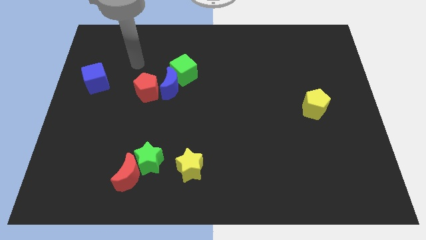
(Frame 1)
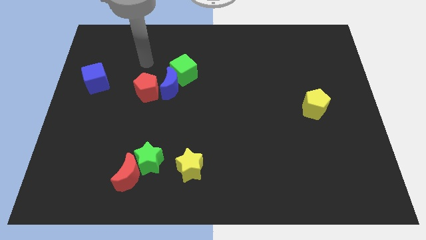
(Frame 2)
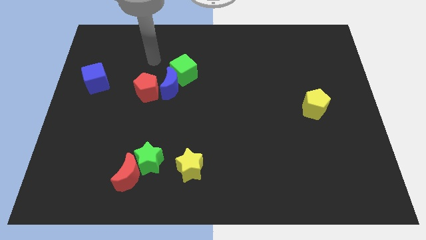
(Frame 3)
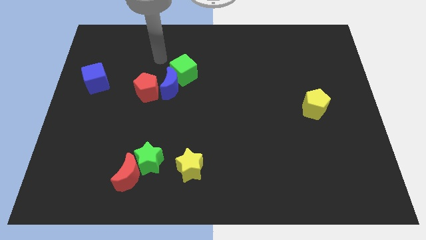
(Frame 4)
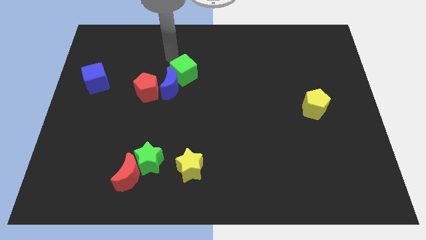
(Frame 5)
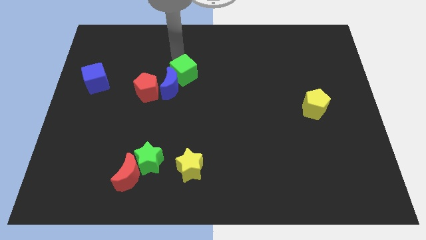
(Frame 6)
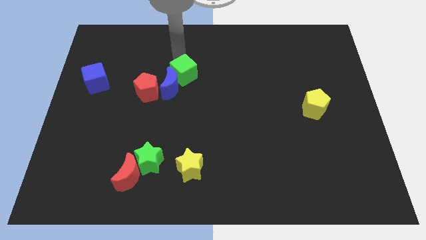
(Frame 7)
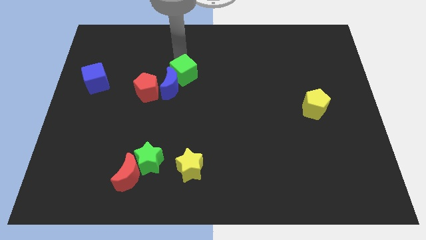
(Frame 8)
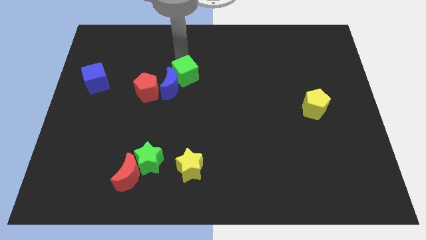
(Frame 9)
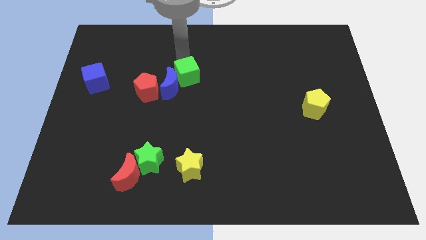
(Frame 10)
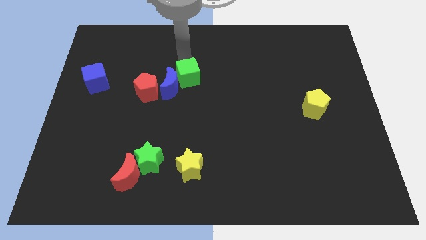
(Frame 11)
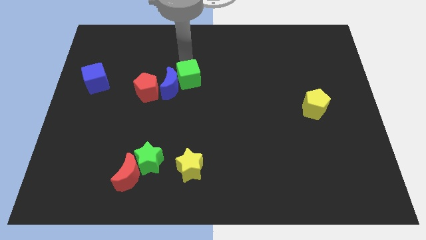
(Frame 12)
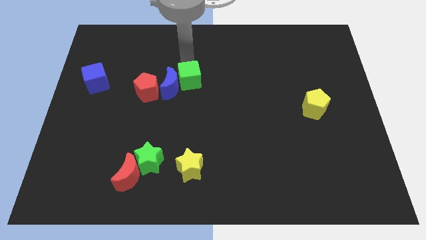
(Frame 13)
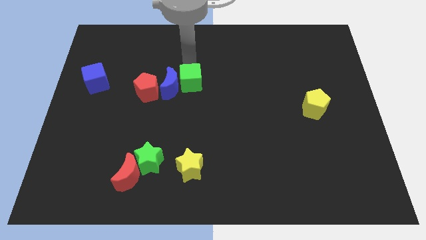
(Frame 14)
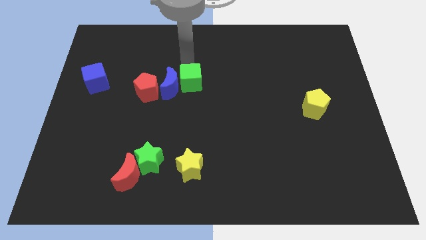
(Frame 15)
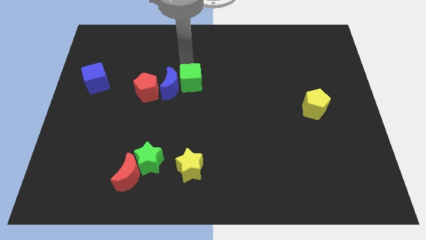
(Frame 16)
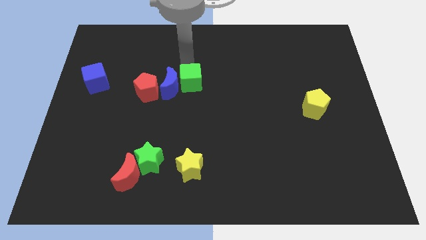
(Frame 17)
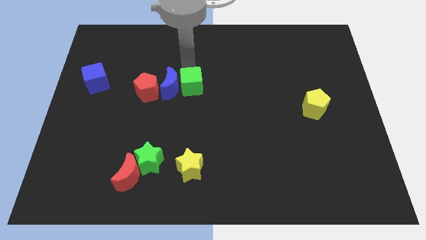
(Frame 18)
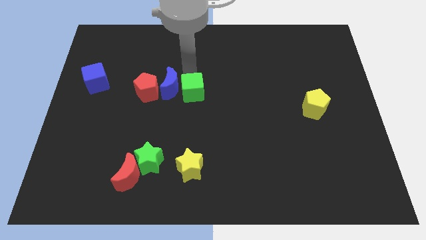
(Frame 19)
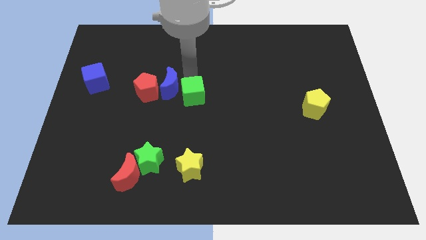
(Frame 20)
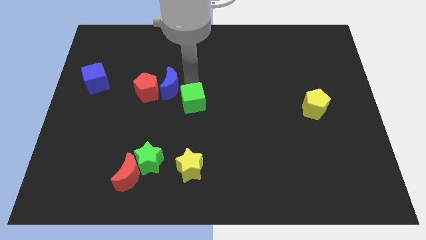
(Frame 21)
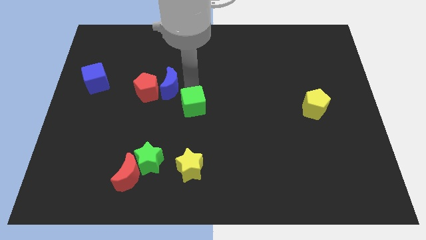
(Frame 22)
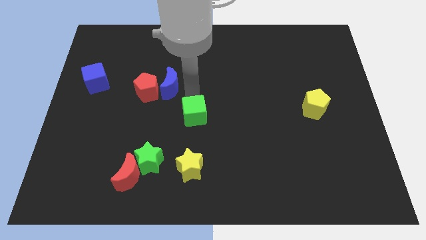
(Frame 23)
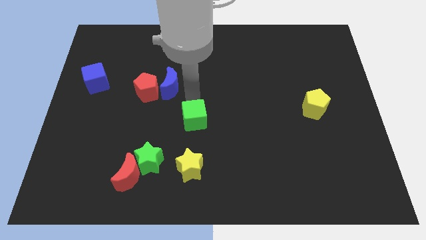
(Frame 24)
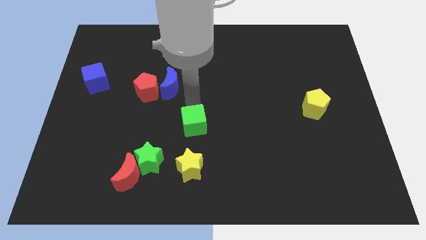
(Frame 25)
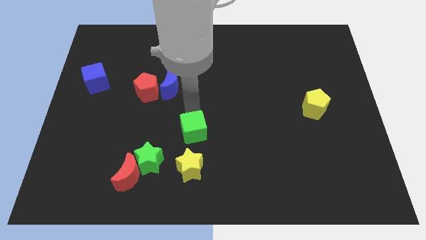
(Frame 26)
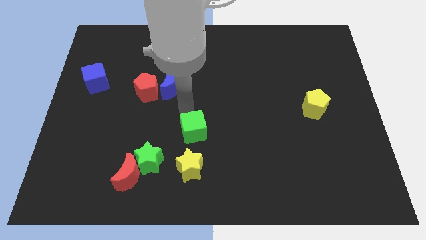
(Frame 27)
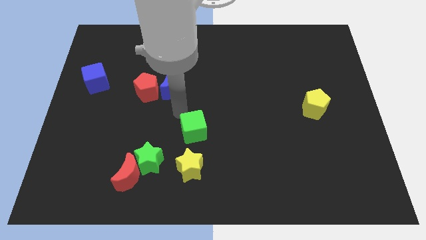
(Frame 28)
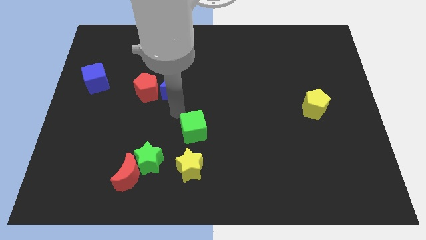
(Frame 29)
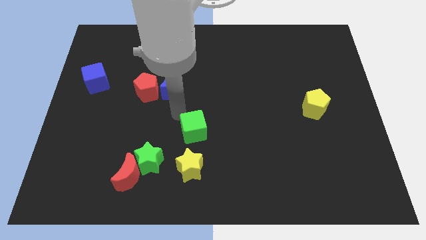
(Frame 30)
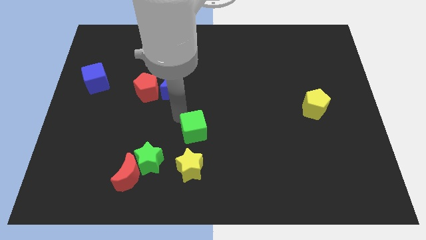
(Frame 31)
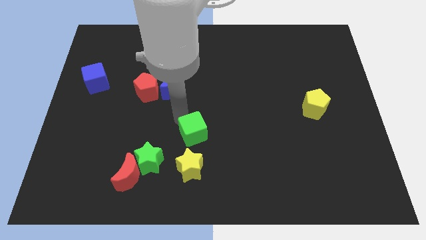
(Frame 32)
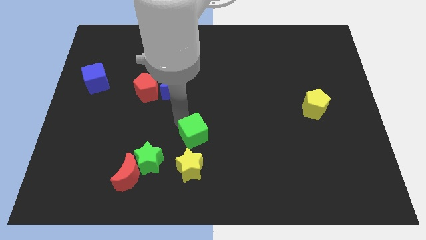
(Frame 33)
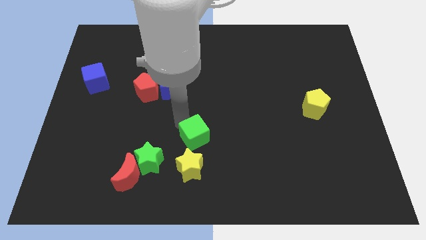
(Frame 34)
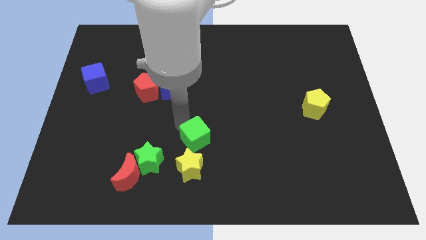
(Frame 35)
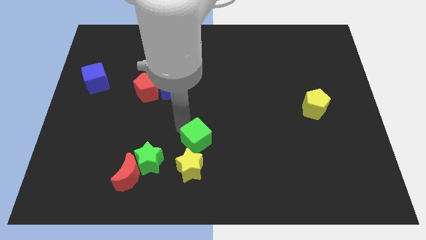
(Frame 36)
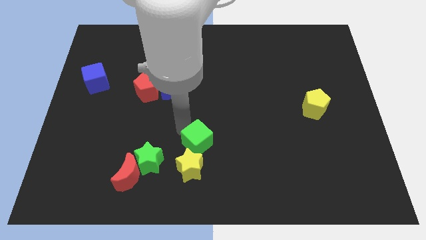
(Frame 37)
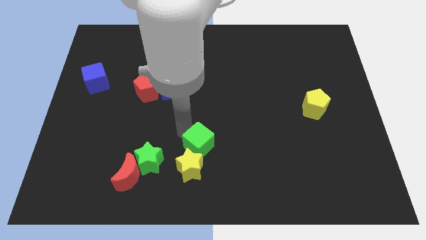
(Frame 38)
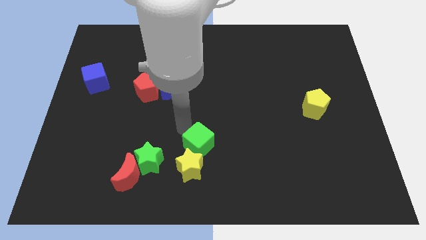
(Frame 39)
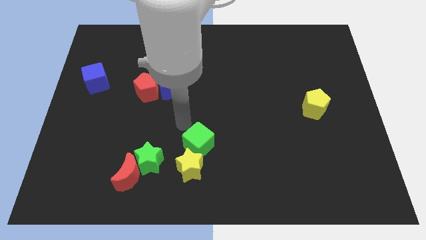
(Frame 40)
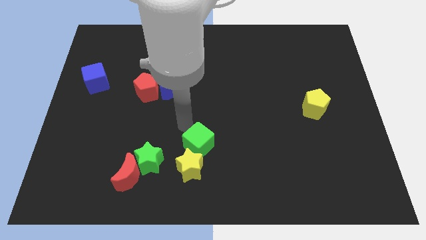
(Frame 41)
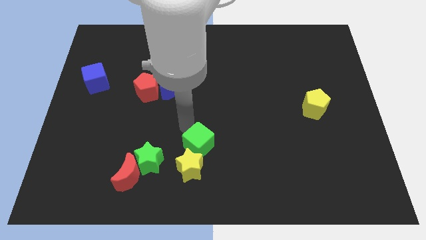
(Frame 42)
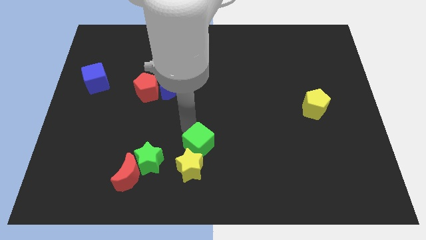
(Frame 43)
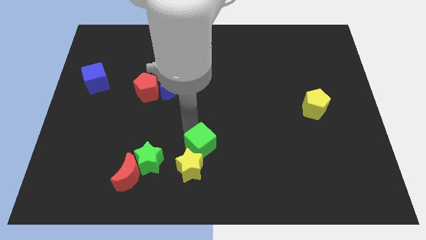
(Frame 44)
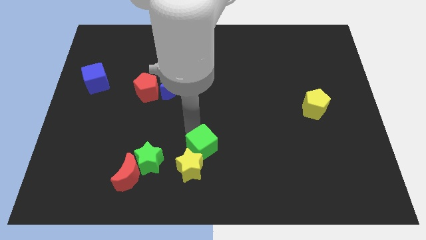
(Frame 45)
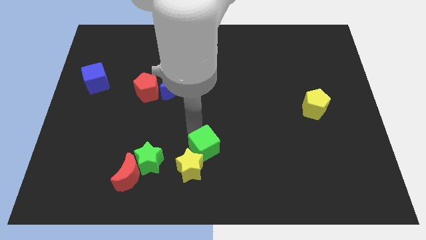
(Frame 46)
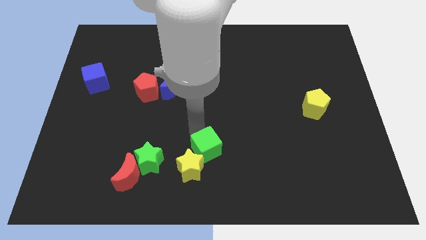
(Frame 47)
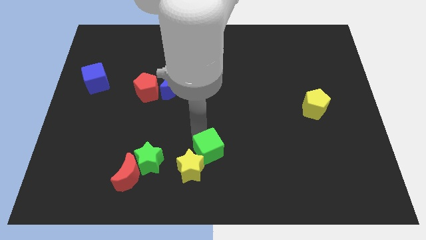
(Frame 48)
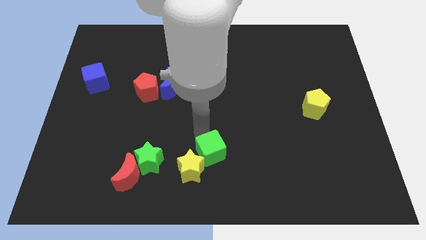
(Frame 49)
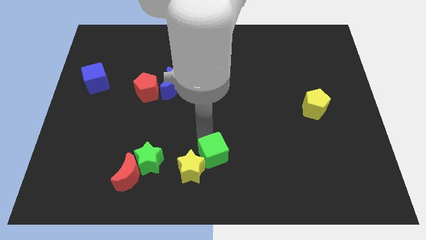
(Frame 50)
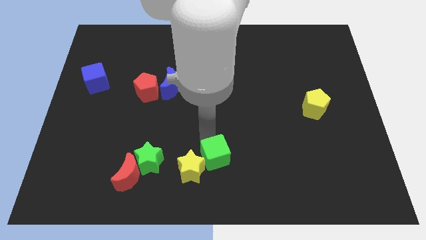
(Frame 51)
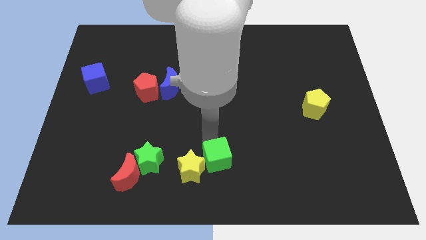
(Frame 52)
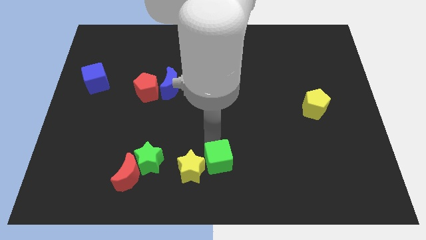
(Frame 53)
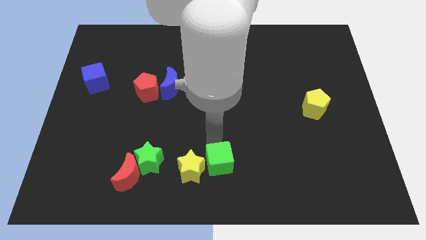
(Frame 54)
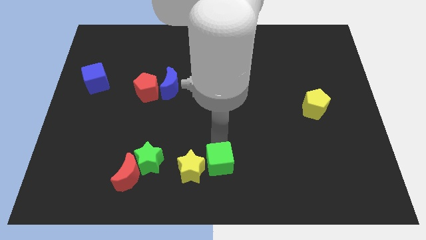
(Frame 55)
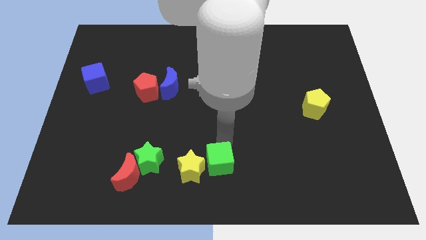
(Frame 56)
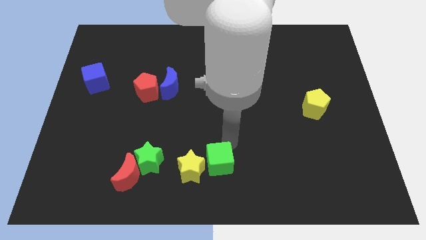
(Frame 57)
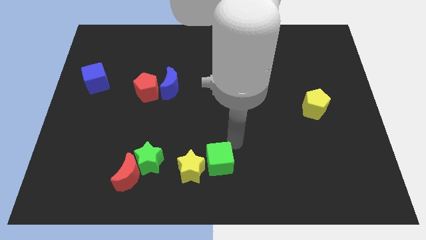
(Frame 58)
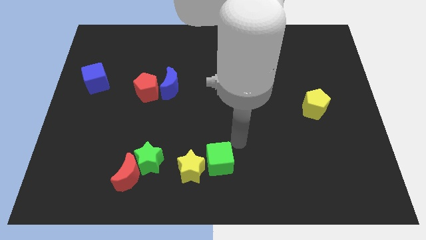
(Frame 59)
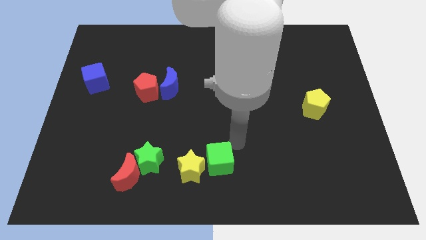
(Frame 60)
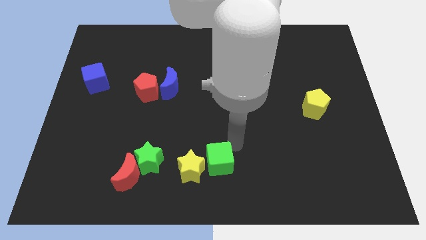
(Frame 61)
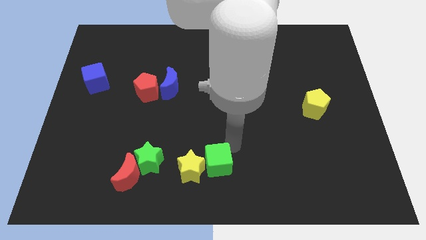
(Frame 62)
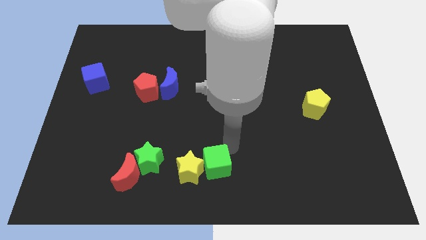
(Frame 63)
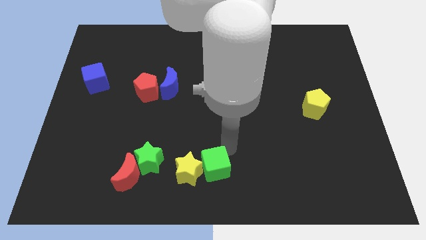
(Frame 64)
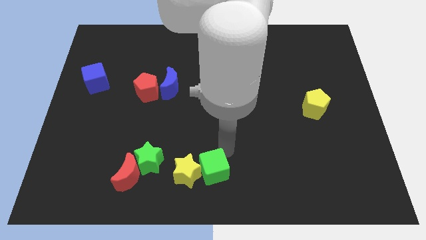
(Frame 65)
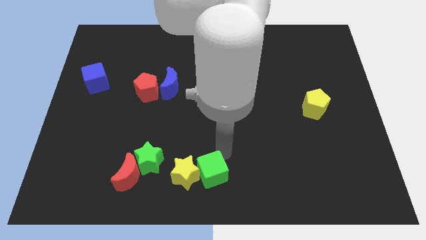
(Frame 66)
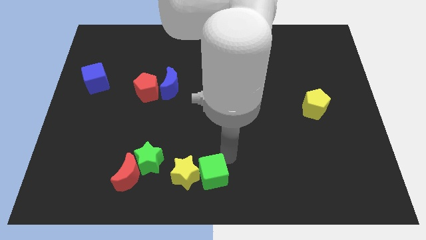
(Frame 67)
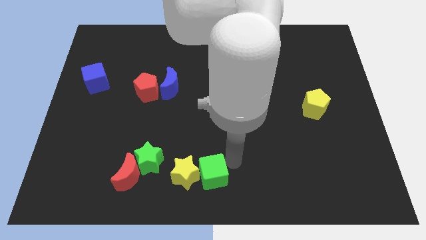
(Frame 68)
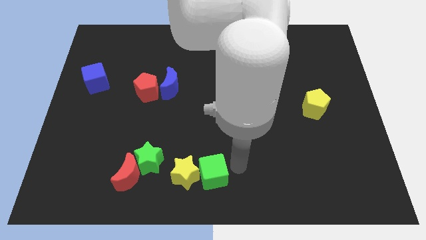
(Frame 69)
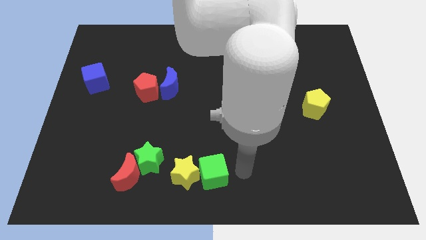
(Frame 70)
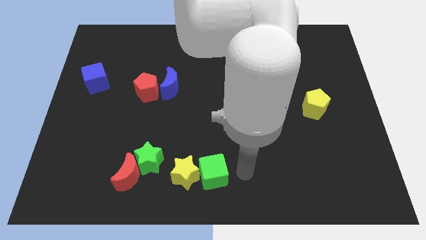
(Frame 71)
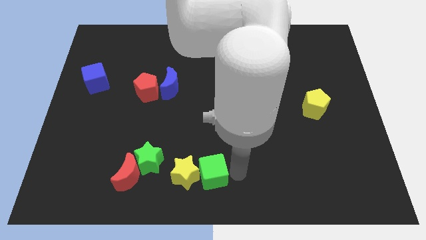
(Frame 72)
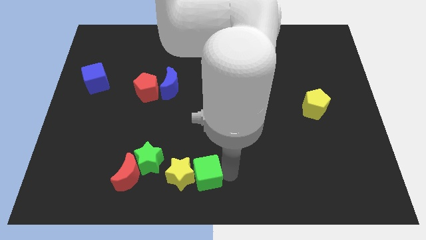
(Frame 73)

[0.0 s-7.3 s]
put the green cube right of the red moon
